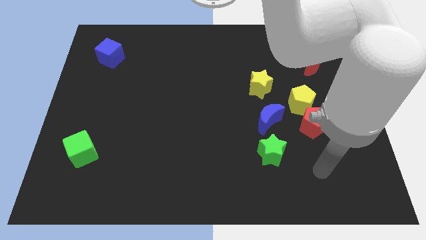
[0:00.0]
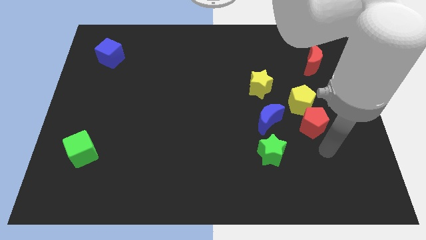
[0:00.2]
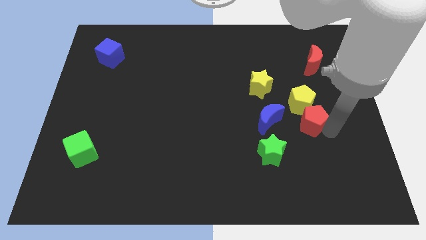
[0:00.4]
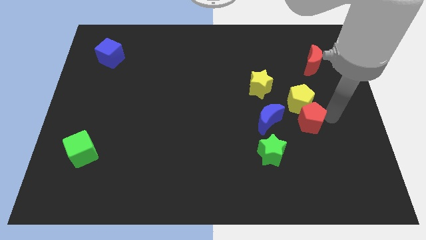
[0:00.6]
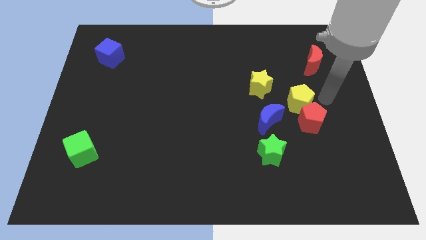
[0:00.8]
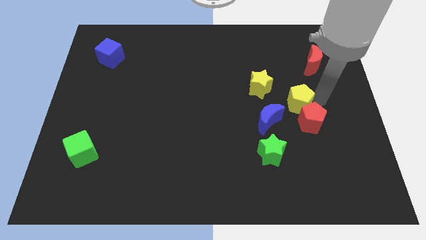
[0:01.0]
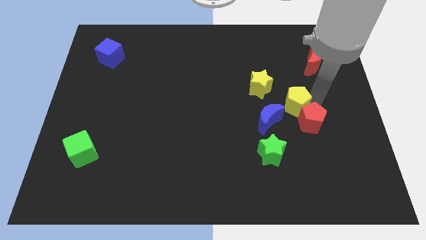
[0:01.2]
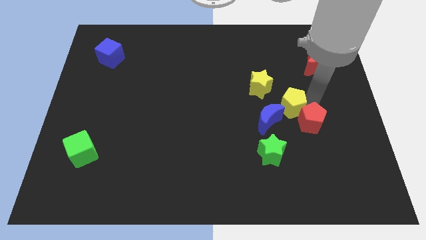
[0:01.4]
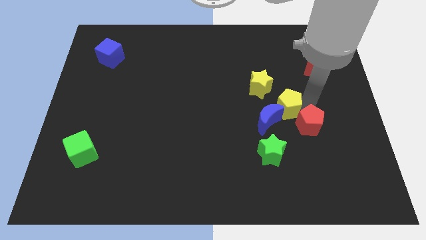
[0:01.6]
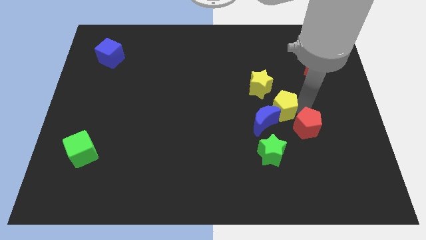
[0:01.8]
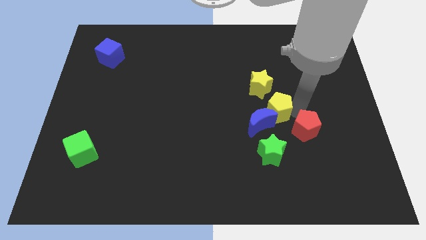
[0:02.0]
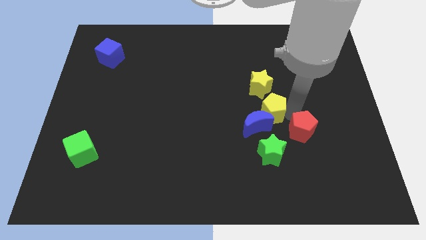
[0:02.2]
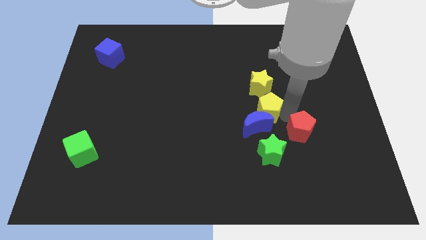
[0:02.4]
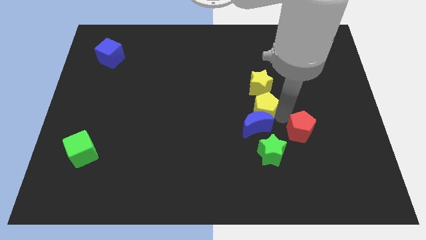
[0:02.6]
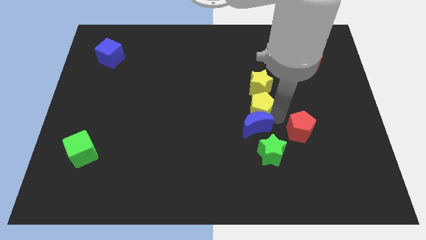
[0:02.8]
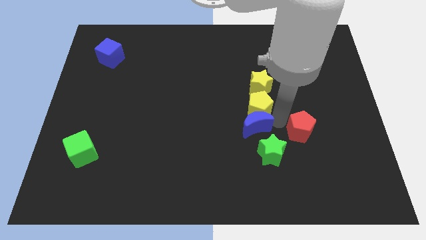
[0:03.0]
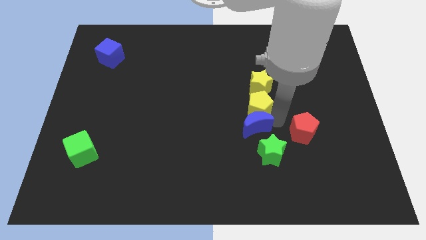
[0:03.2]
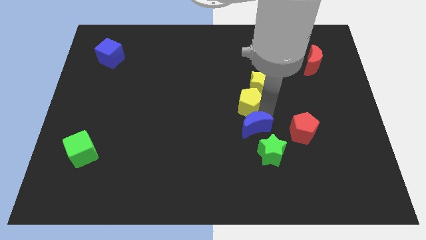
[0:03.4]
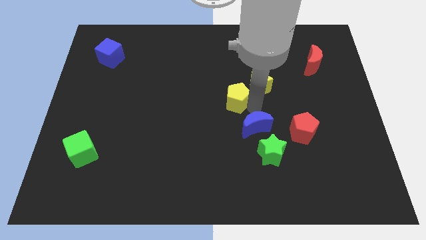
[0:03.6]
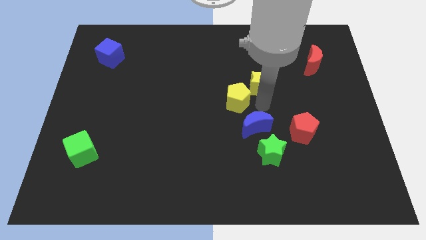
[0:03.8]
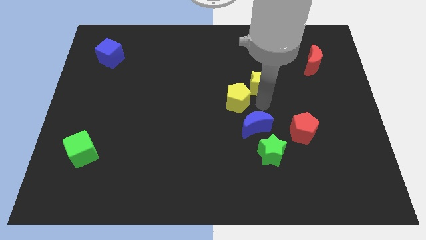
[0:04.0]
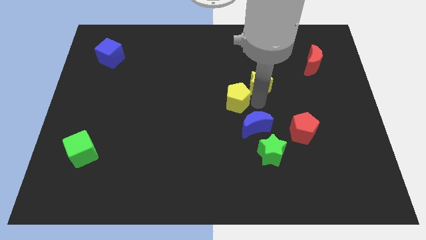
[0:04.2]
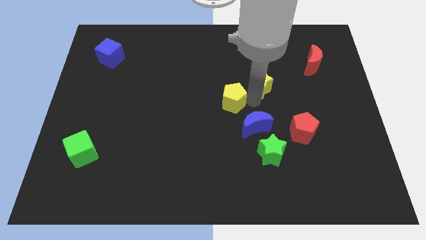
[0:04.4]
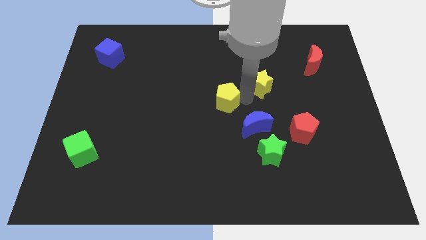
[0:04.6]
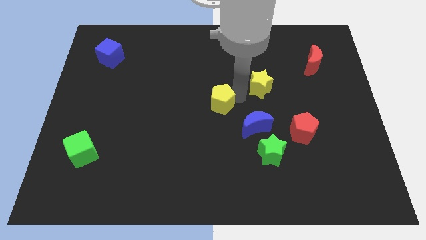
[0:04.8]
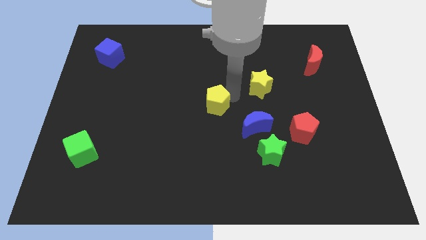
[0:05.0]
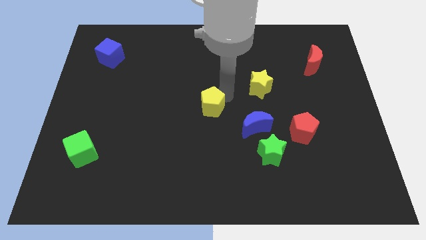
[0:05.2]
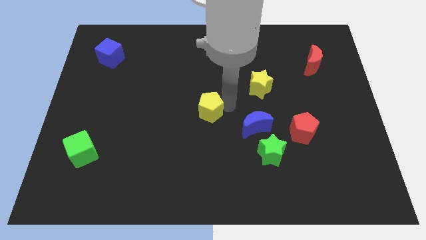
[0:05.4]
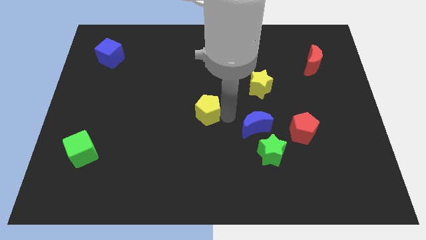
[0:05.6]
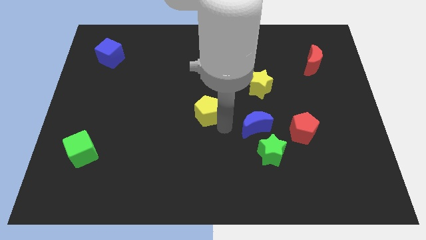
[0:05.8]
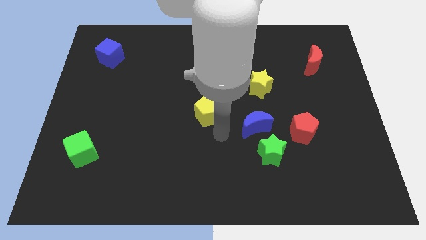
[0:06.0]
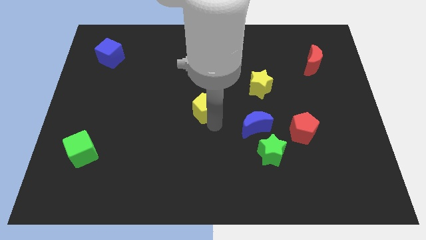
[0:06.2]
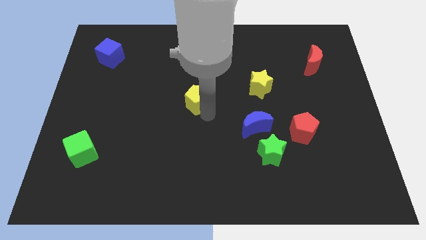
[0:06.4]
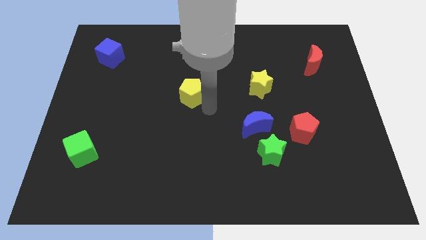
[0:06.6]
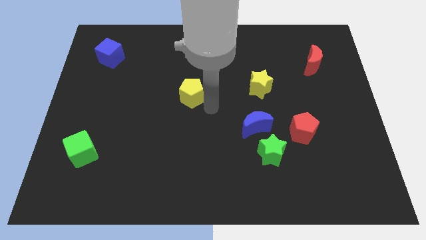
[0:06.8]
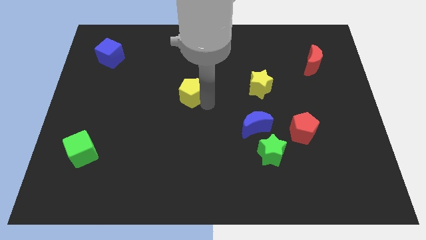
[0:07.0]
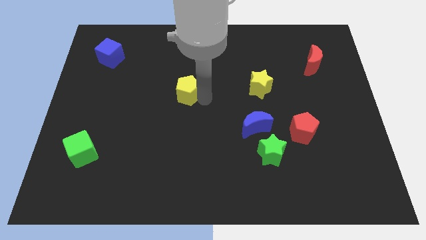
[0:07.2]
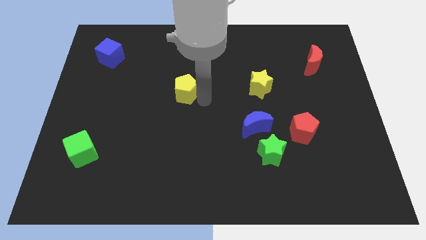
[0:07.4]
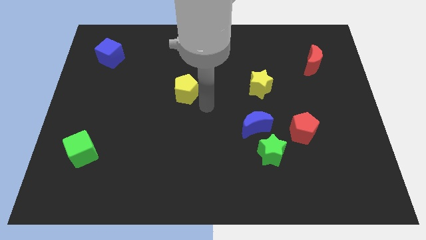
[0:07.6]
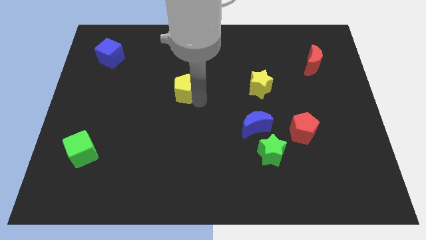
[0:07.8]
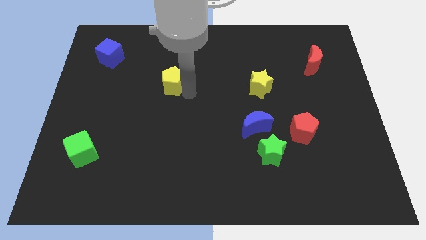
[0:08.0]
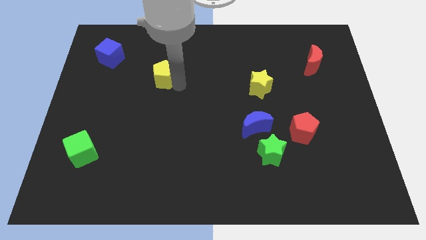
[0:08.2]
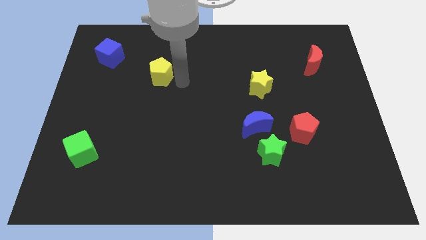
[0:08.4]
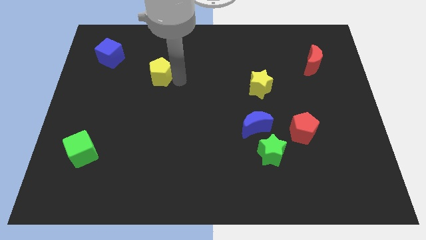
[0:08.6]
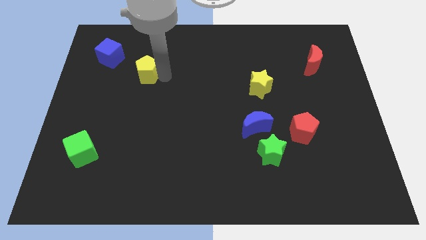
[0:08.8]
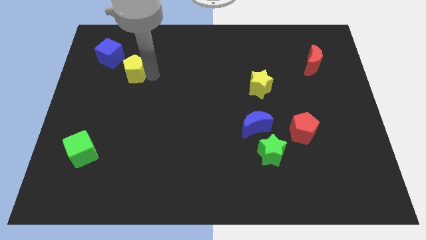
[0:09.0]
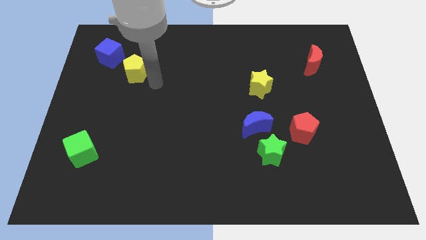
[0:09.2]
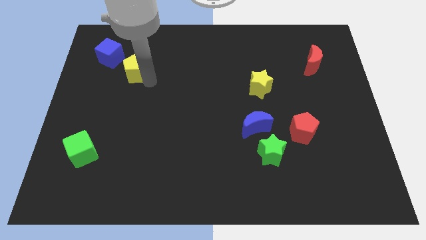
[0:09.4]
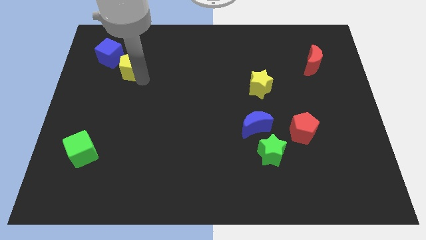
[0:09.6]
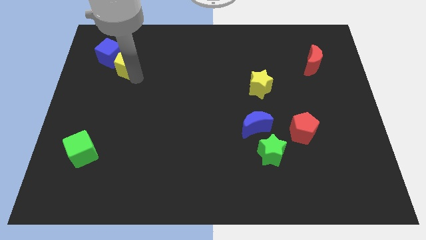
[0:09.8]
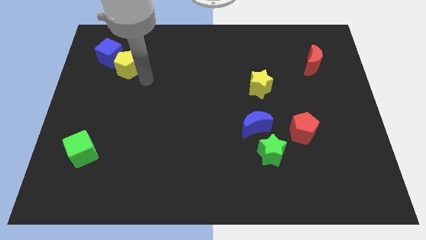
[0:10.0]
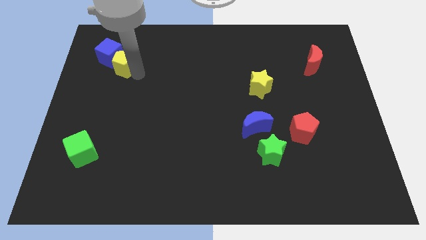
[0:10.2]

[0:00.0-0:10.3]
push the yellow pentagon towards the blue cube

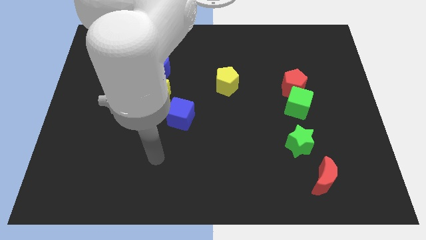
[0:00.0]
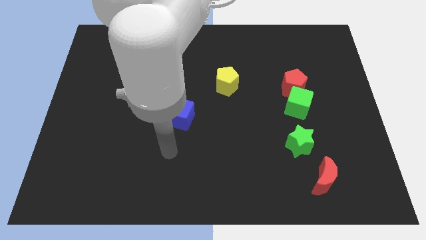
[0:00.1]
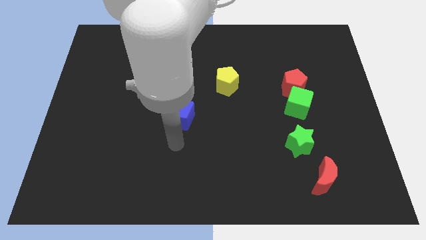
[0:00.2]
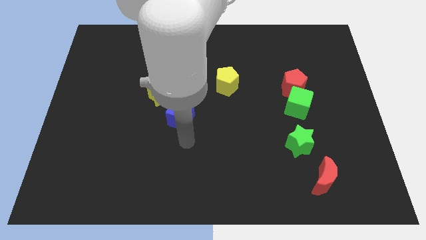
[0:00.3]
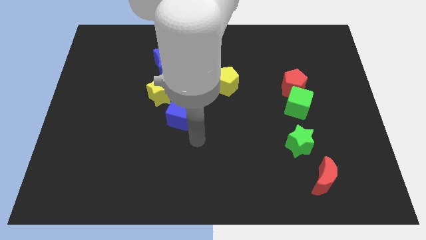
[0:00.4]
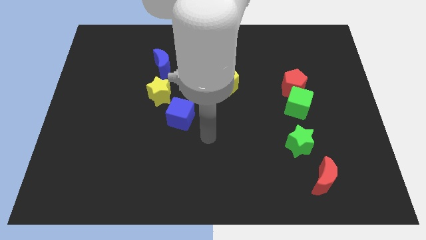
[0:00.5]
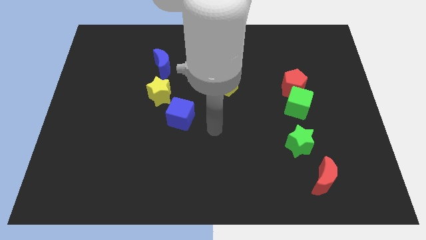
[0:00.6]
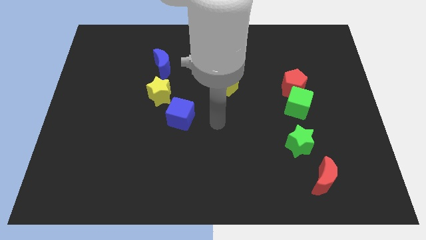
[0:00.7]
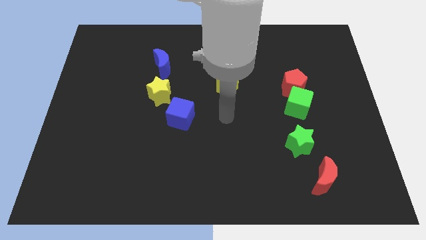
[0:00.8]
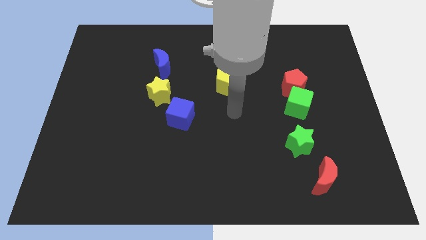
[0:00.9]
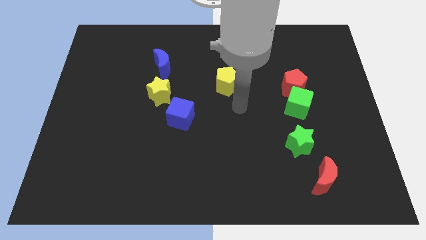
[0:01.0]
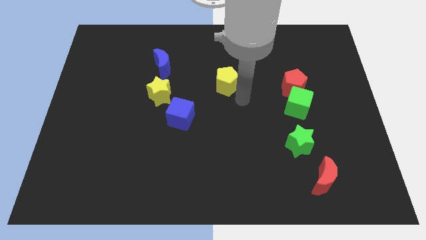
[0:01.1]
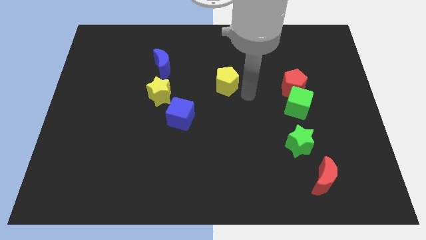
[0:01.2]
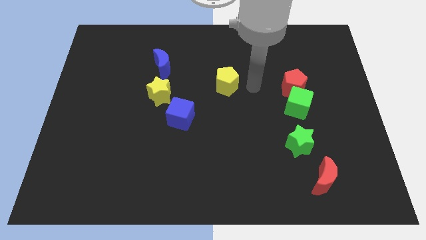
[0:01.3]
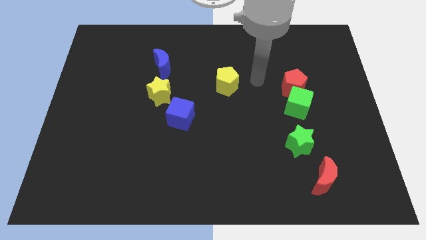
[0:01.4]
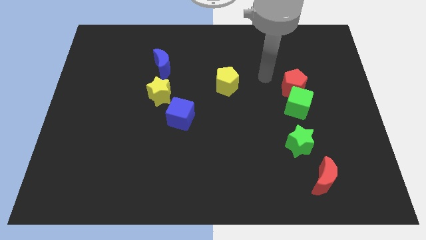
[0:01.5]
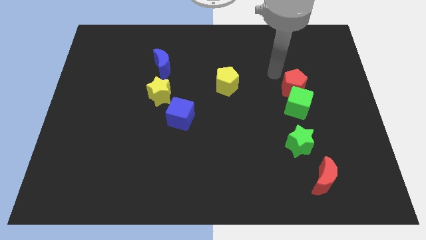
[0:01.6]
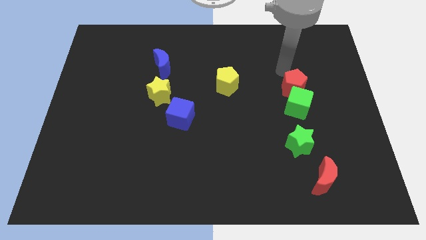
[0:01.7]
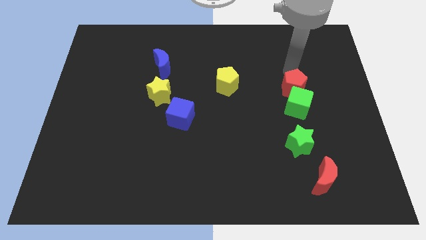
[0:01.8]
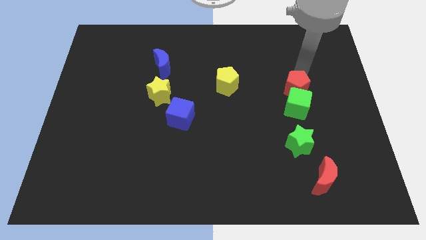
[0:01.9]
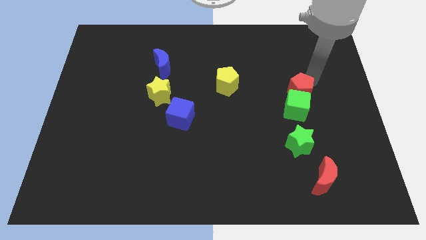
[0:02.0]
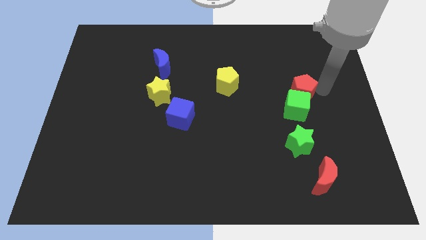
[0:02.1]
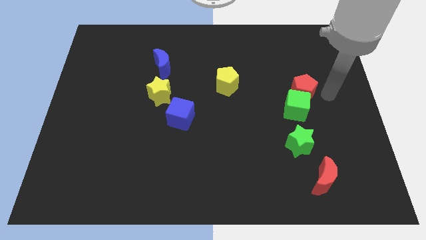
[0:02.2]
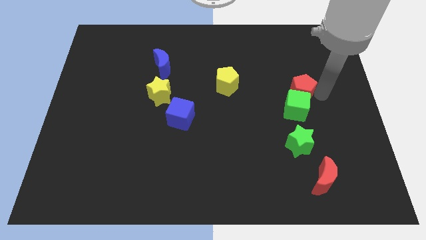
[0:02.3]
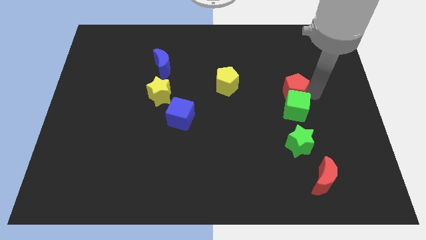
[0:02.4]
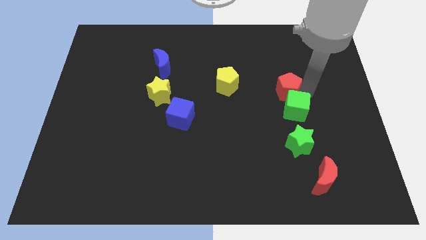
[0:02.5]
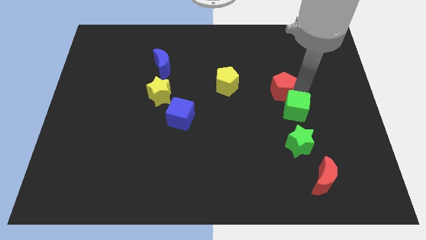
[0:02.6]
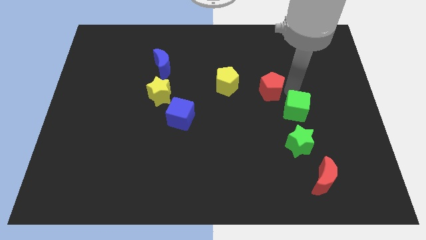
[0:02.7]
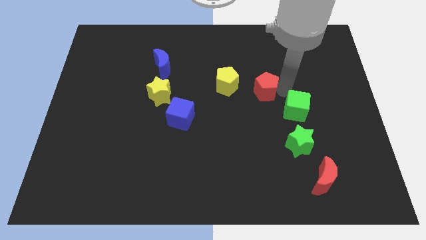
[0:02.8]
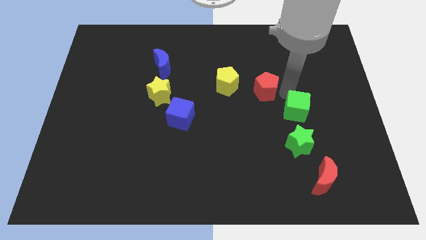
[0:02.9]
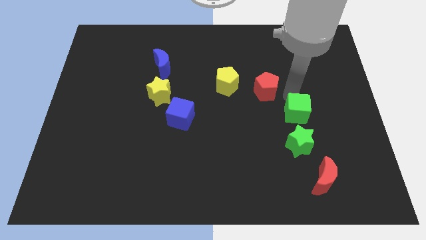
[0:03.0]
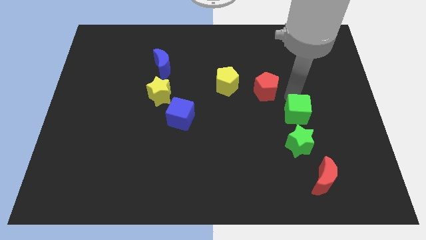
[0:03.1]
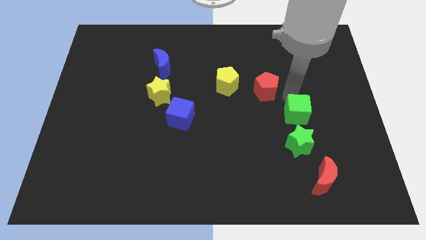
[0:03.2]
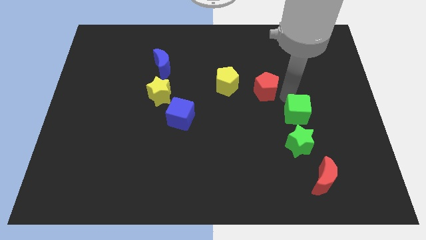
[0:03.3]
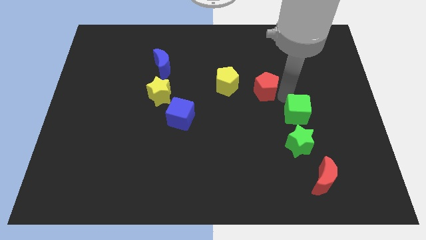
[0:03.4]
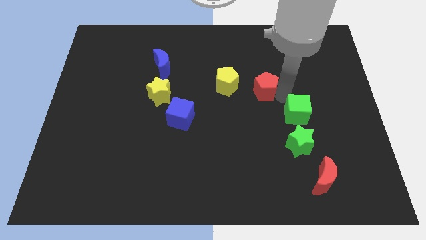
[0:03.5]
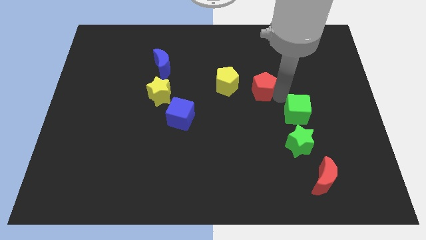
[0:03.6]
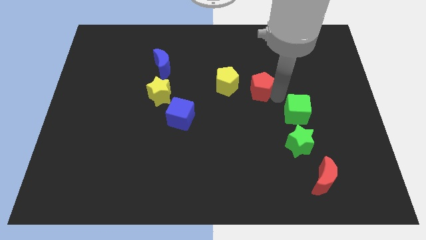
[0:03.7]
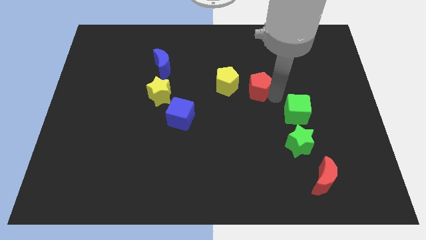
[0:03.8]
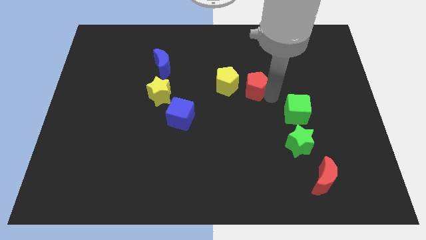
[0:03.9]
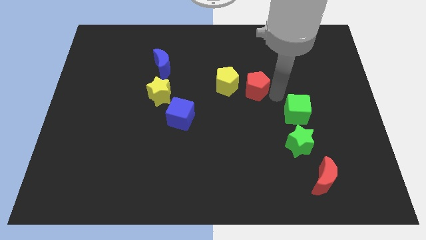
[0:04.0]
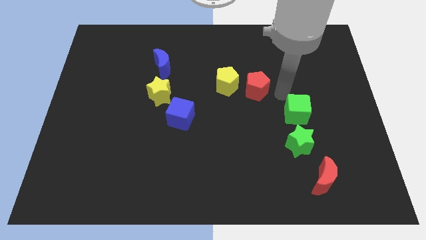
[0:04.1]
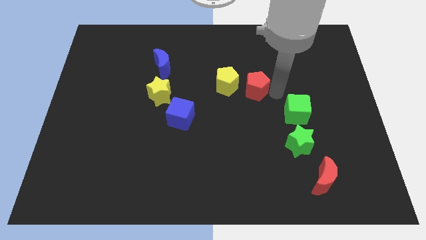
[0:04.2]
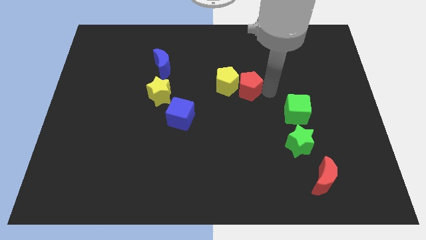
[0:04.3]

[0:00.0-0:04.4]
put the red pentagon towards the yellow pentagon
